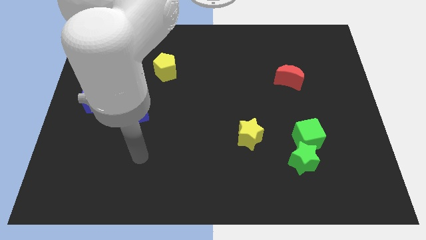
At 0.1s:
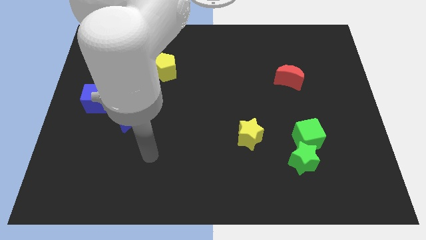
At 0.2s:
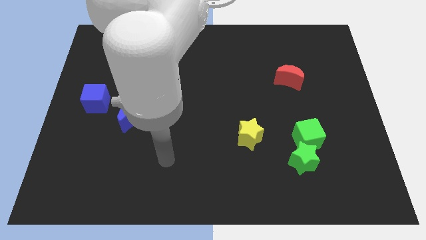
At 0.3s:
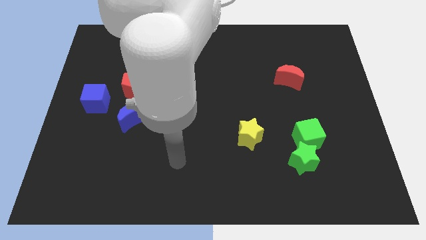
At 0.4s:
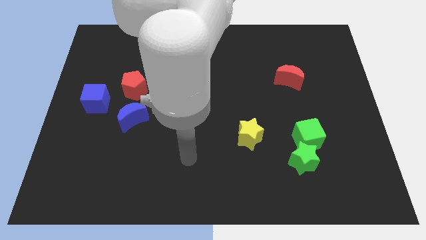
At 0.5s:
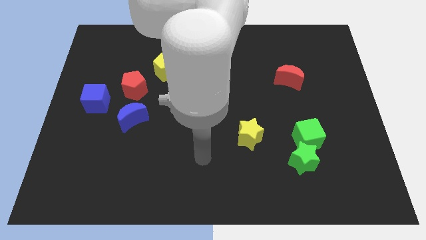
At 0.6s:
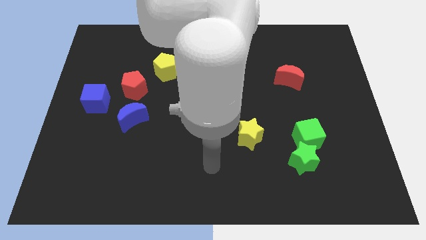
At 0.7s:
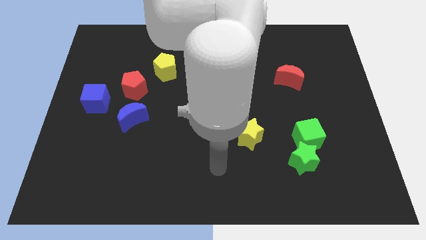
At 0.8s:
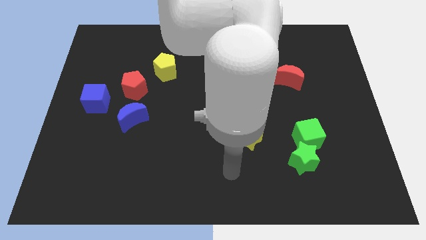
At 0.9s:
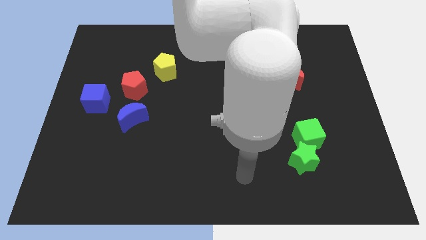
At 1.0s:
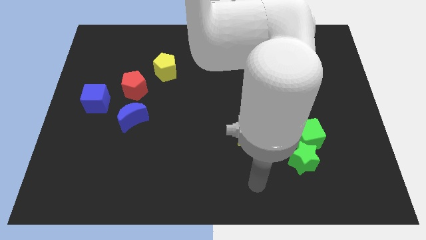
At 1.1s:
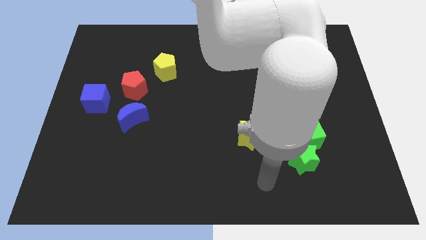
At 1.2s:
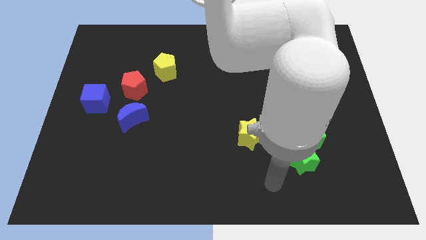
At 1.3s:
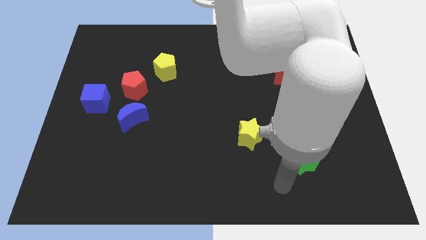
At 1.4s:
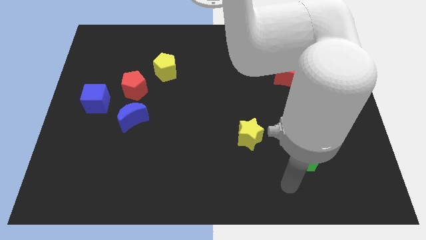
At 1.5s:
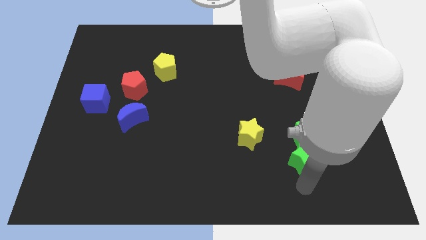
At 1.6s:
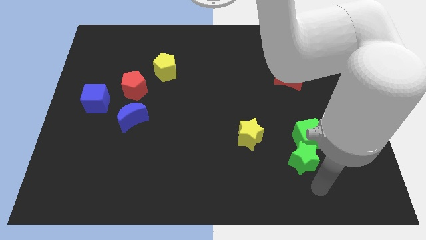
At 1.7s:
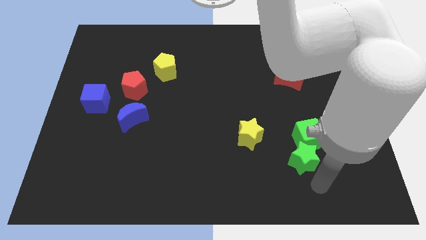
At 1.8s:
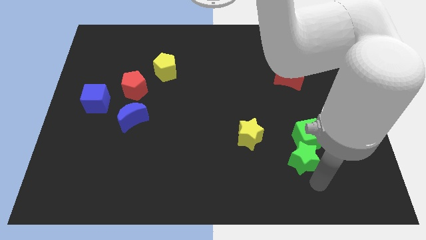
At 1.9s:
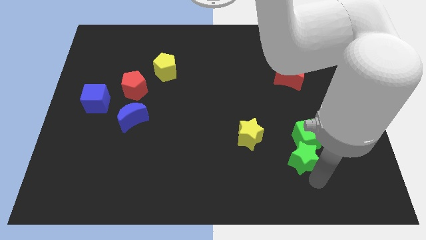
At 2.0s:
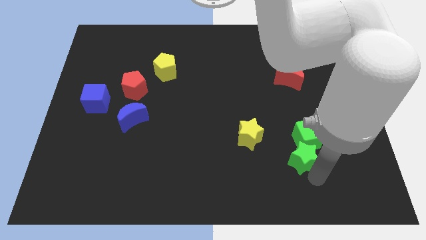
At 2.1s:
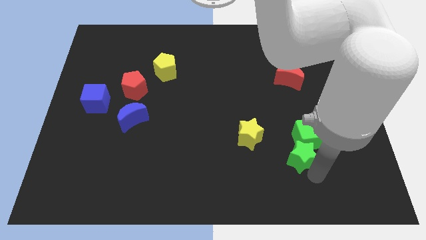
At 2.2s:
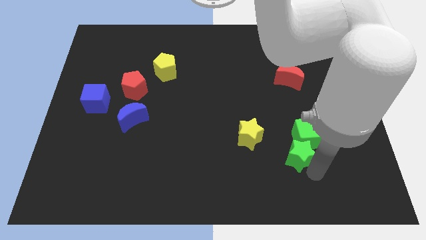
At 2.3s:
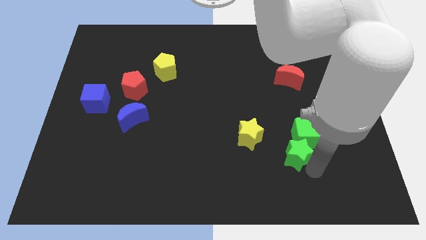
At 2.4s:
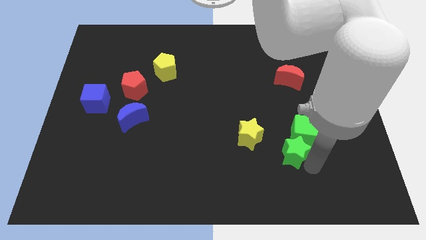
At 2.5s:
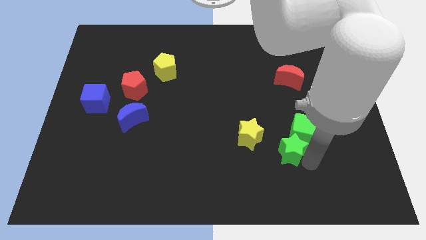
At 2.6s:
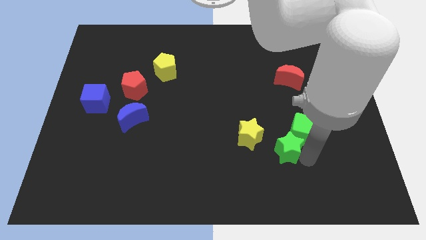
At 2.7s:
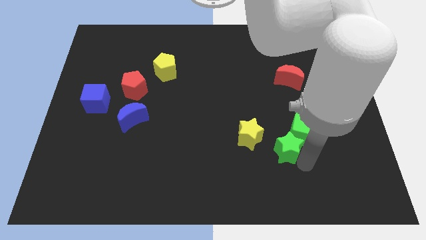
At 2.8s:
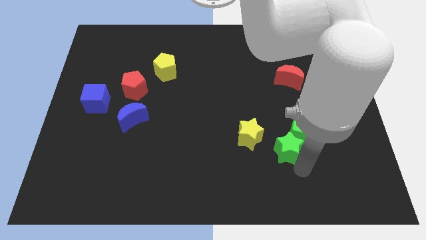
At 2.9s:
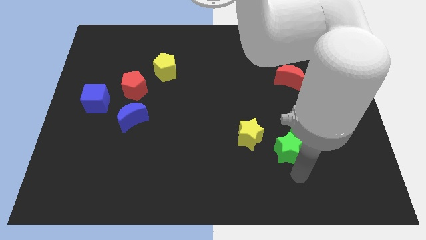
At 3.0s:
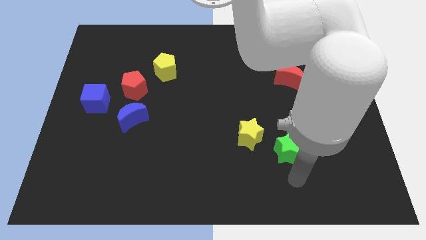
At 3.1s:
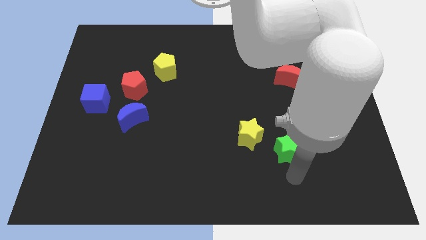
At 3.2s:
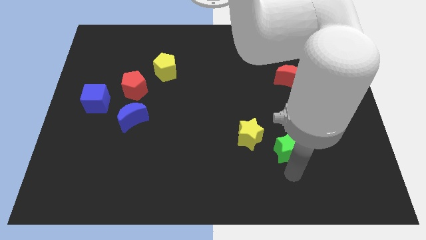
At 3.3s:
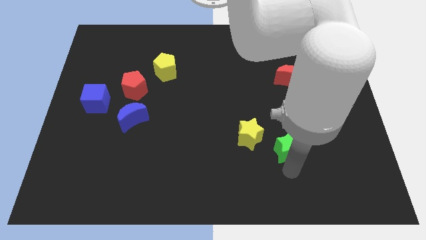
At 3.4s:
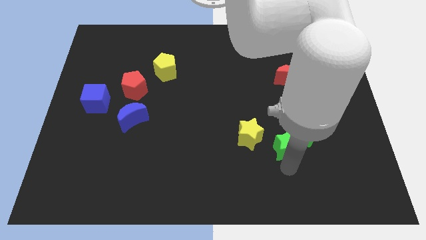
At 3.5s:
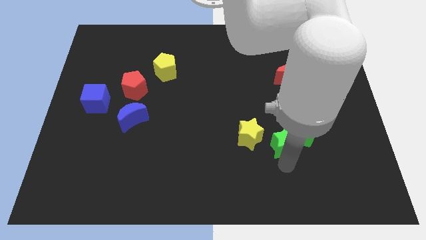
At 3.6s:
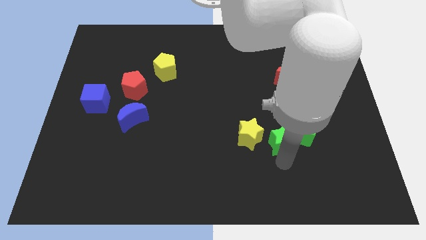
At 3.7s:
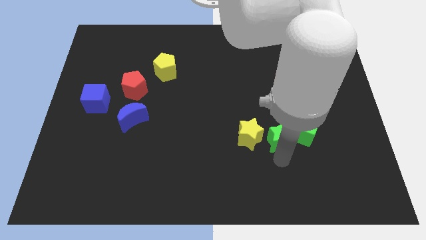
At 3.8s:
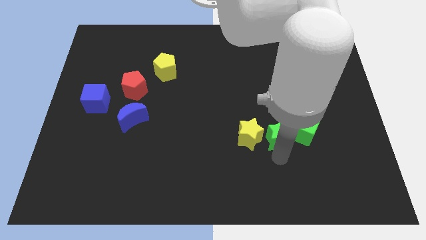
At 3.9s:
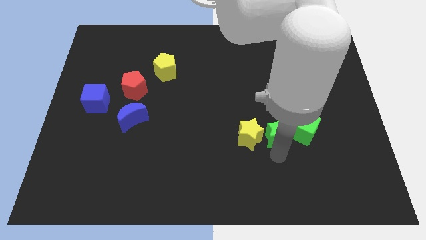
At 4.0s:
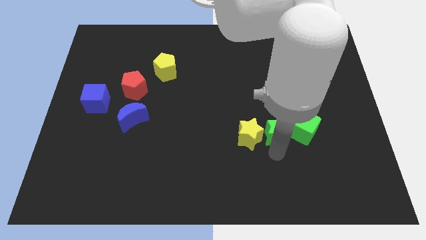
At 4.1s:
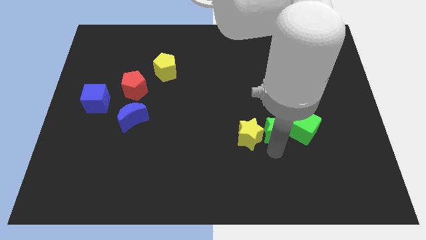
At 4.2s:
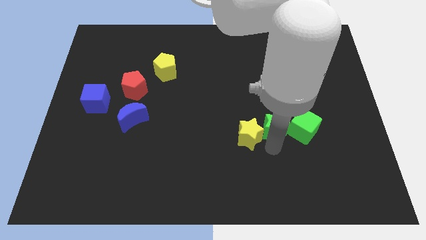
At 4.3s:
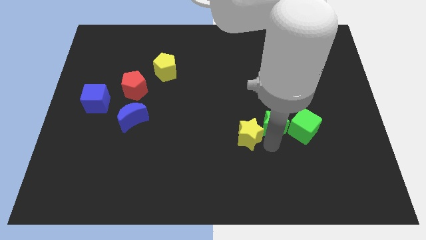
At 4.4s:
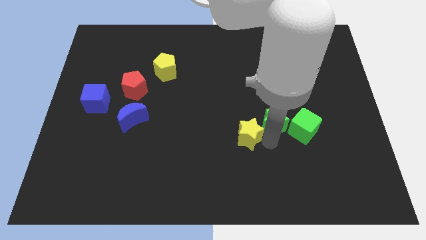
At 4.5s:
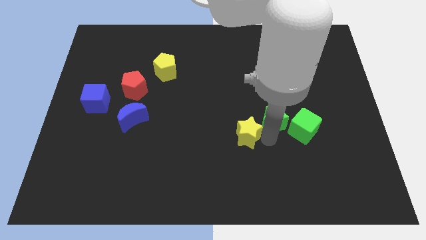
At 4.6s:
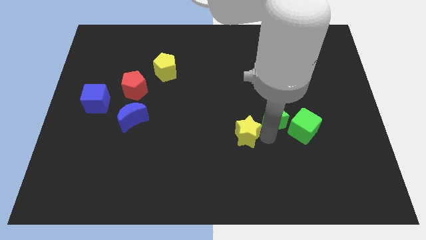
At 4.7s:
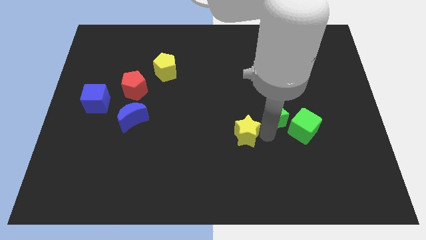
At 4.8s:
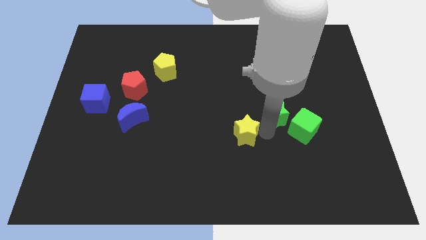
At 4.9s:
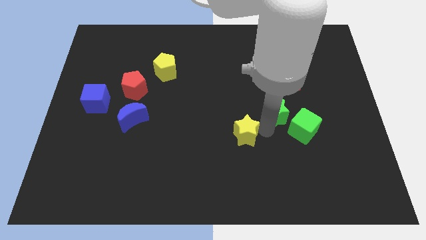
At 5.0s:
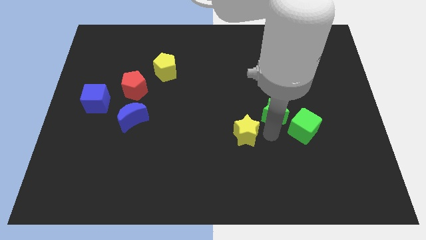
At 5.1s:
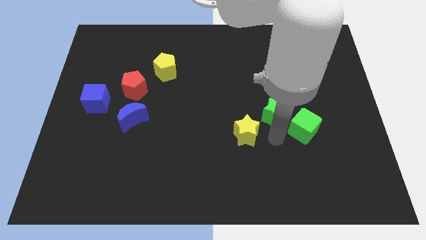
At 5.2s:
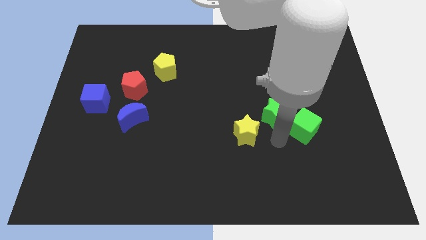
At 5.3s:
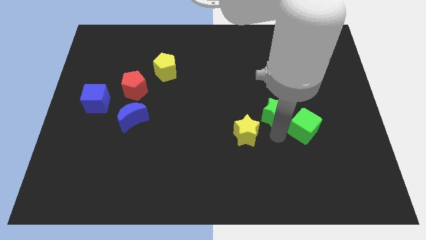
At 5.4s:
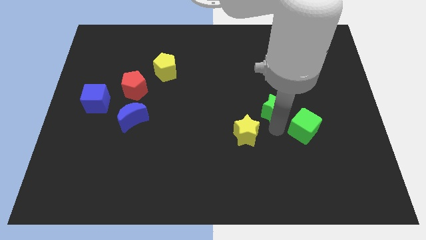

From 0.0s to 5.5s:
move the green star diagonally down and to the left of the red moon
